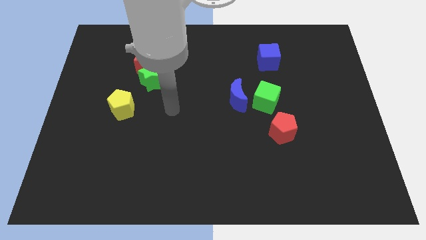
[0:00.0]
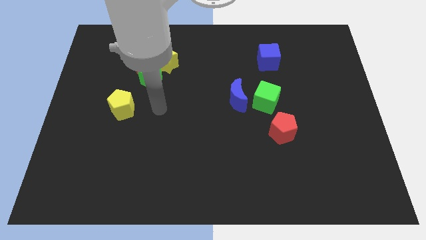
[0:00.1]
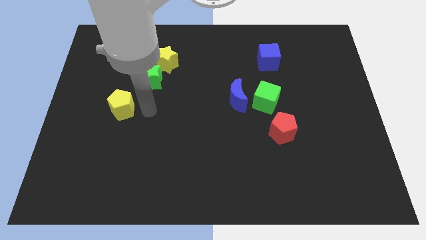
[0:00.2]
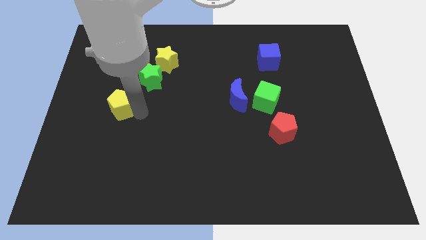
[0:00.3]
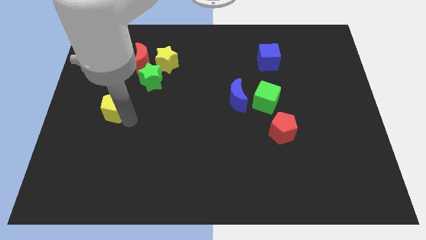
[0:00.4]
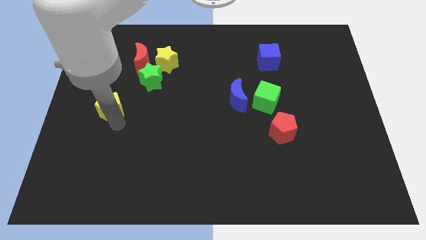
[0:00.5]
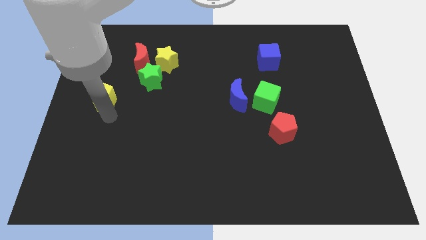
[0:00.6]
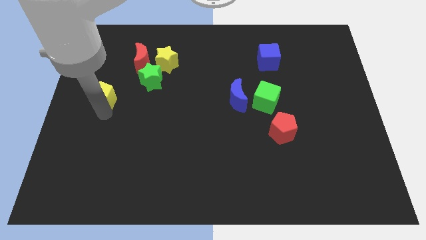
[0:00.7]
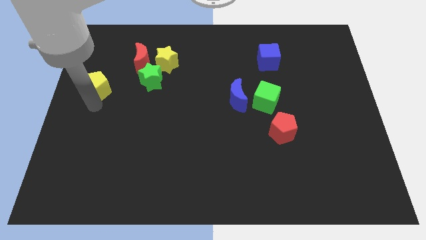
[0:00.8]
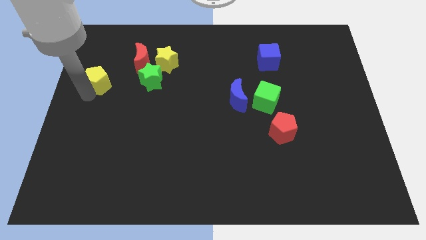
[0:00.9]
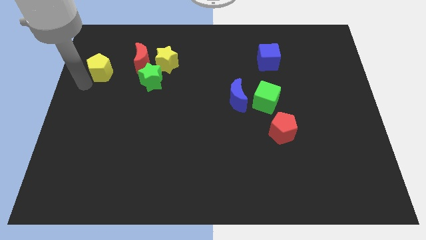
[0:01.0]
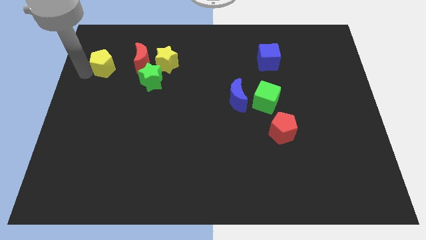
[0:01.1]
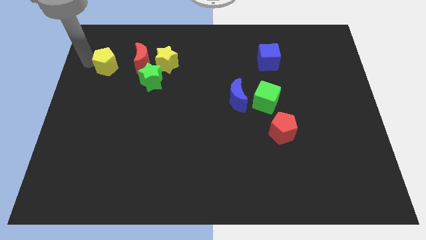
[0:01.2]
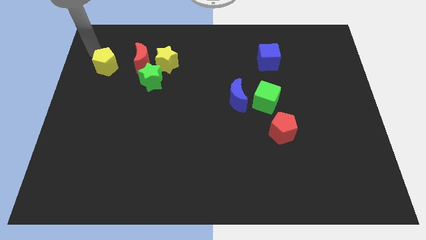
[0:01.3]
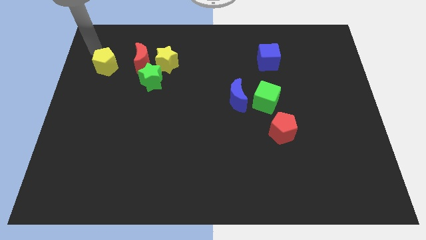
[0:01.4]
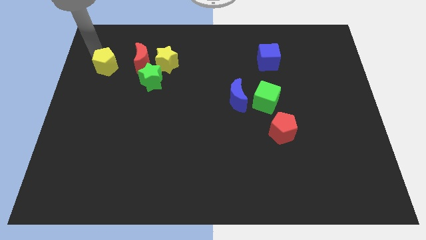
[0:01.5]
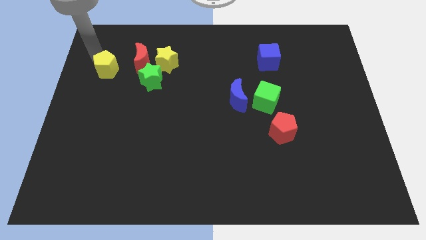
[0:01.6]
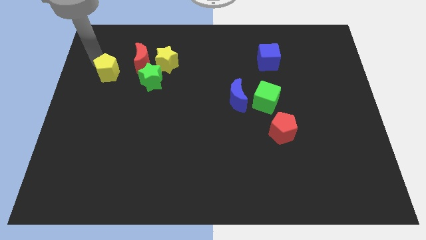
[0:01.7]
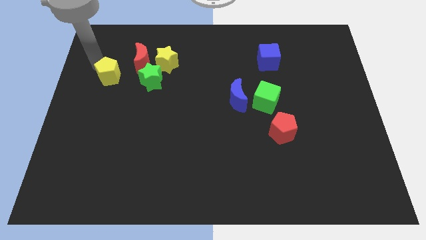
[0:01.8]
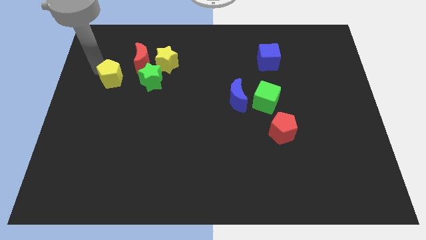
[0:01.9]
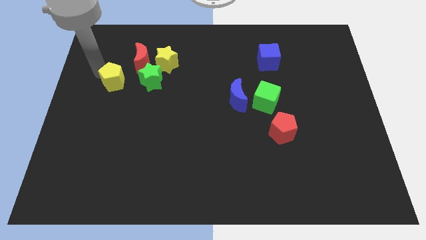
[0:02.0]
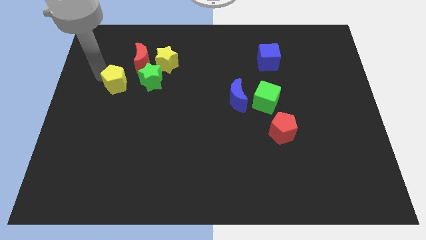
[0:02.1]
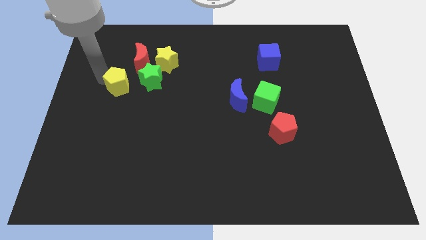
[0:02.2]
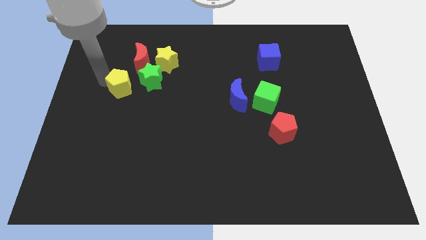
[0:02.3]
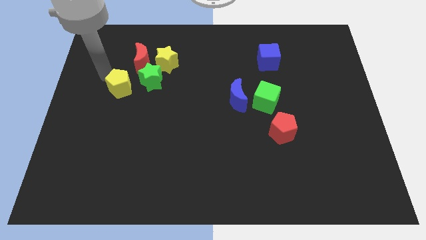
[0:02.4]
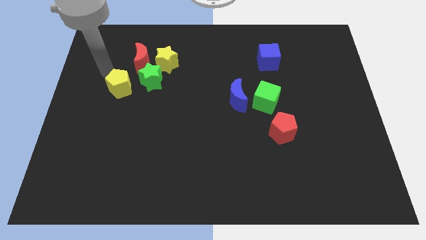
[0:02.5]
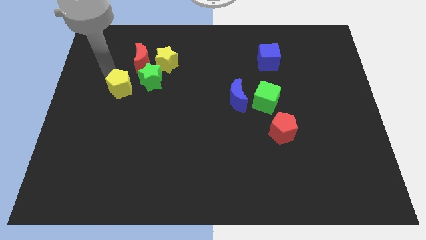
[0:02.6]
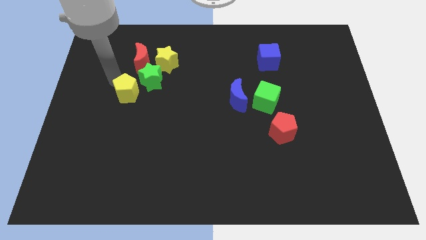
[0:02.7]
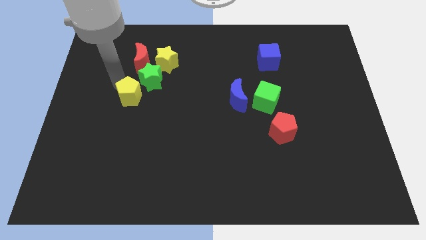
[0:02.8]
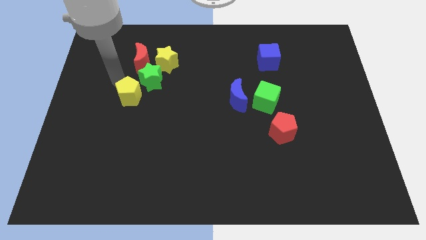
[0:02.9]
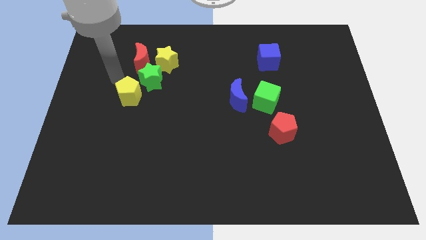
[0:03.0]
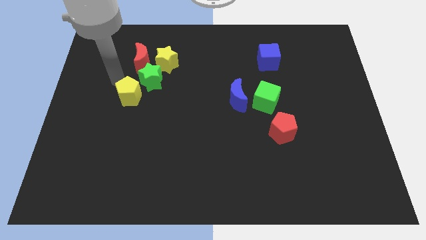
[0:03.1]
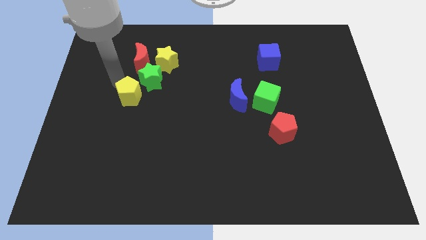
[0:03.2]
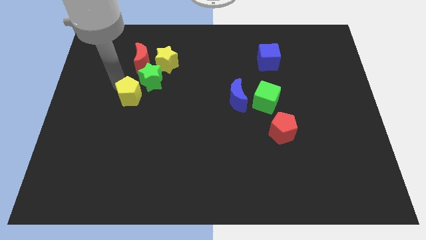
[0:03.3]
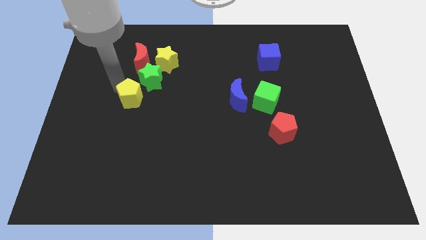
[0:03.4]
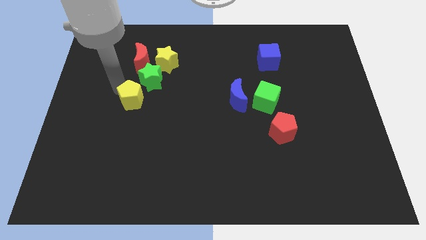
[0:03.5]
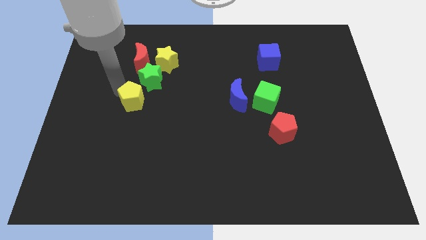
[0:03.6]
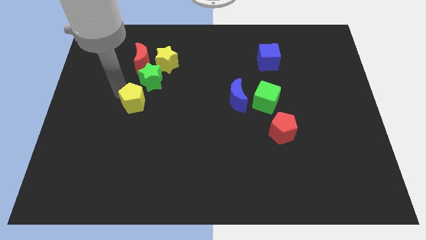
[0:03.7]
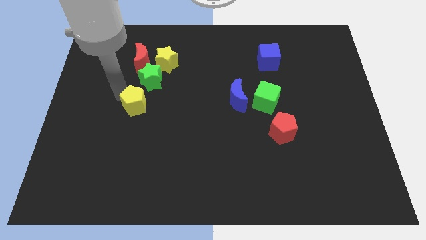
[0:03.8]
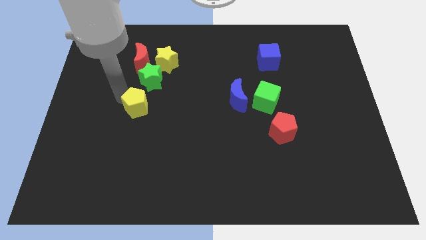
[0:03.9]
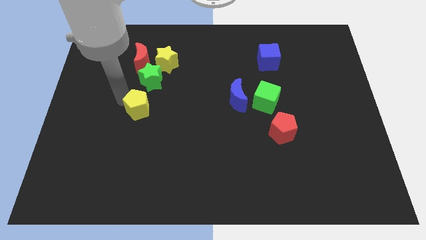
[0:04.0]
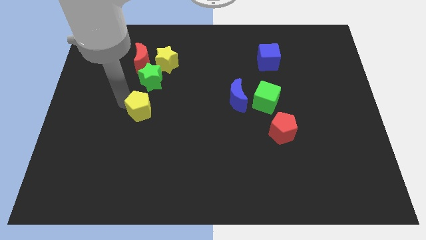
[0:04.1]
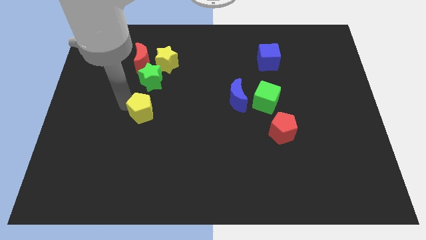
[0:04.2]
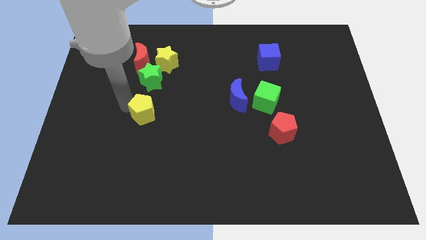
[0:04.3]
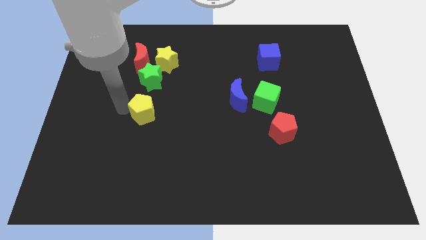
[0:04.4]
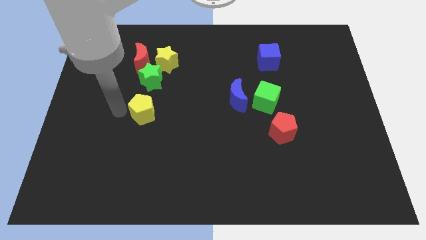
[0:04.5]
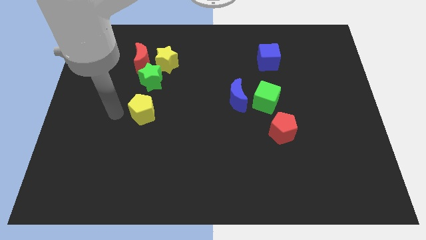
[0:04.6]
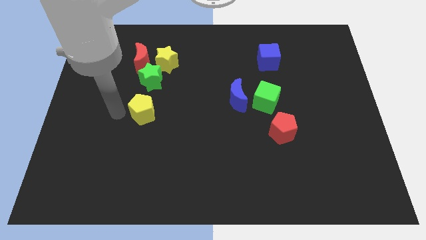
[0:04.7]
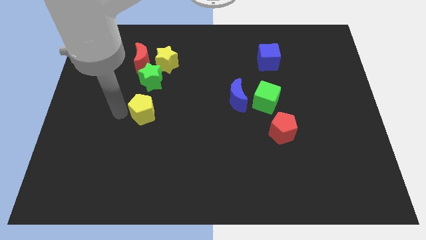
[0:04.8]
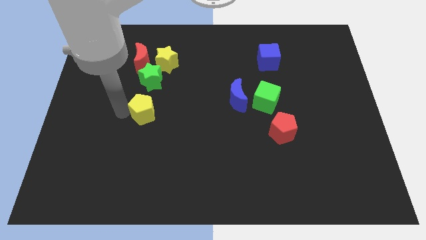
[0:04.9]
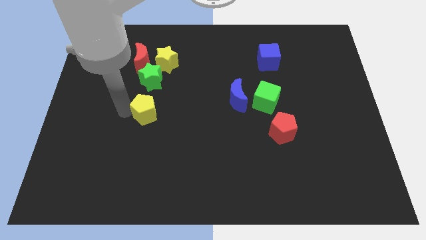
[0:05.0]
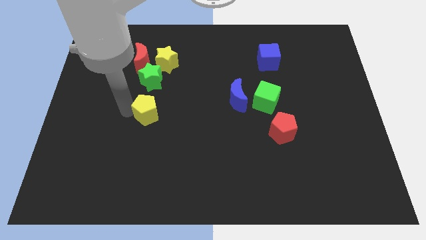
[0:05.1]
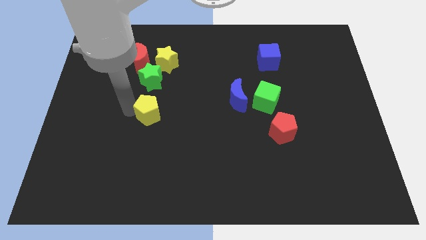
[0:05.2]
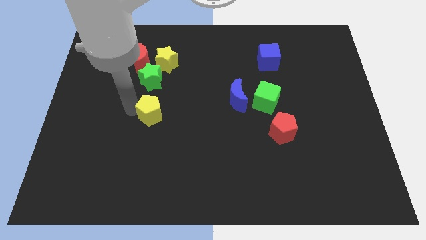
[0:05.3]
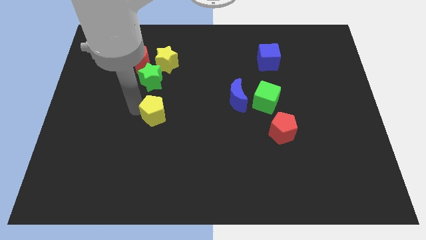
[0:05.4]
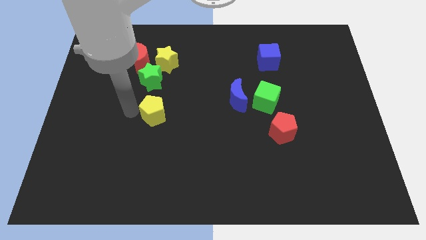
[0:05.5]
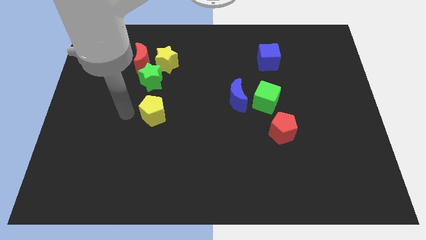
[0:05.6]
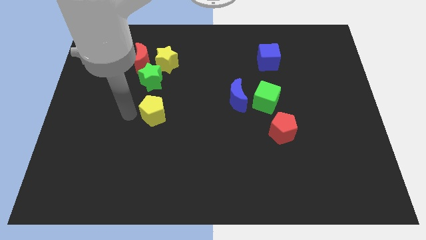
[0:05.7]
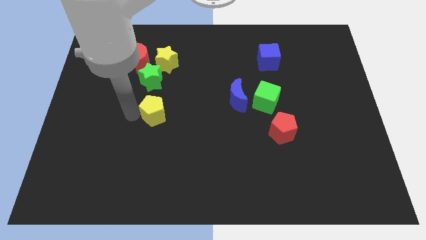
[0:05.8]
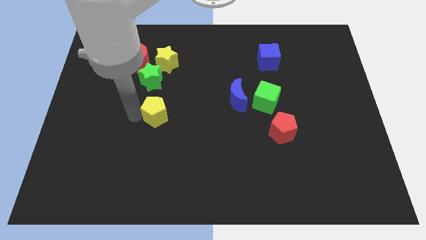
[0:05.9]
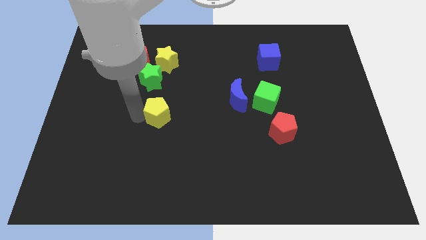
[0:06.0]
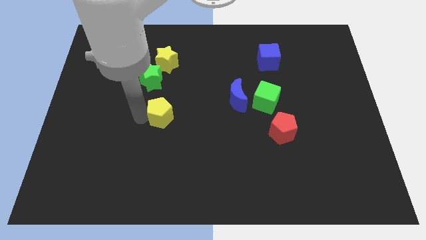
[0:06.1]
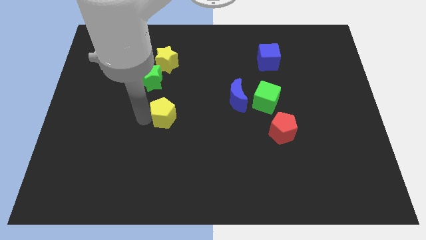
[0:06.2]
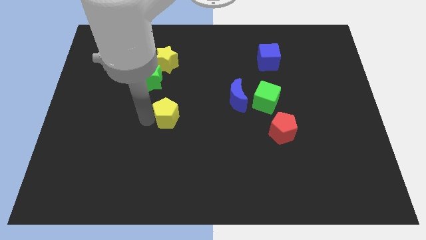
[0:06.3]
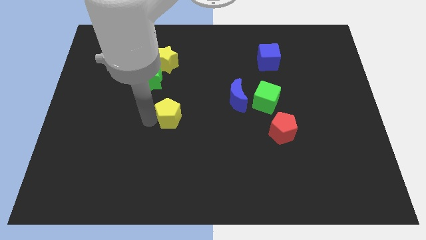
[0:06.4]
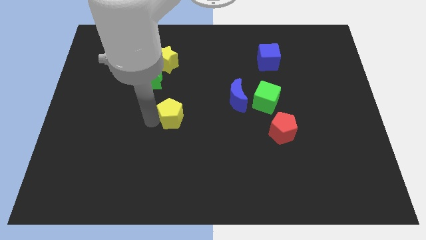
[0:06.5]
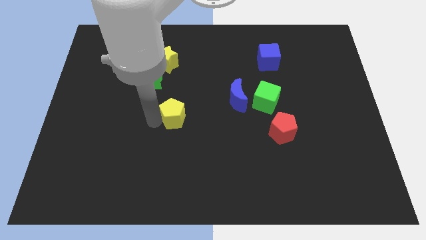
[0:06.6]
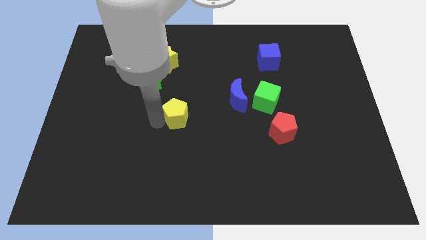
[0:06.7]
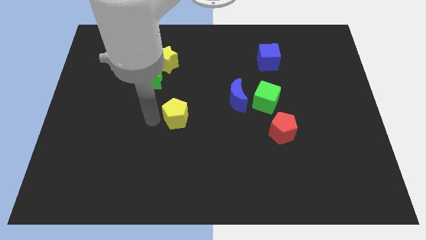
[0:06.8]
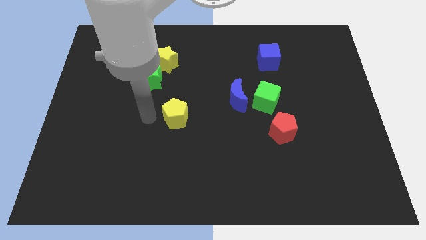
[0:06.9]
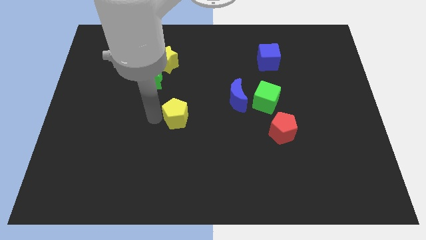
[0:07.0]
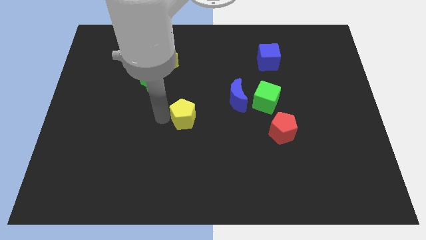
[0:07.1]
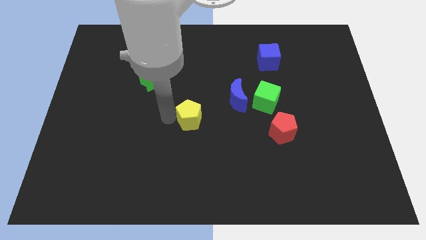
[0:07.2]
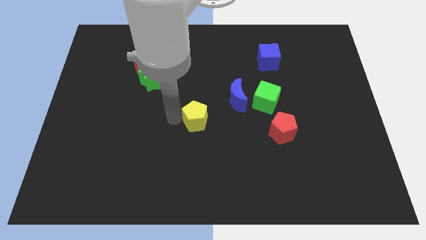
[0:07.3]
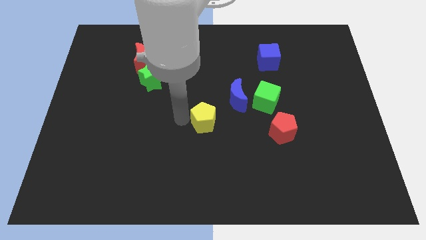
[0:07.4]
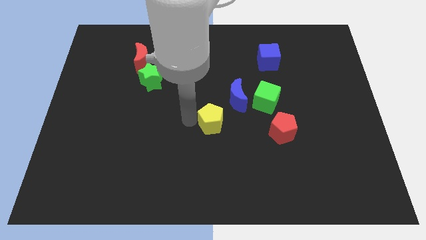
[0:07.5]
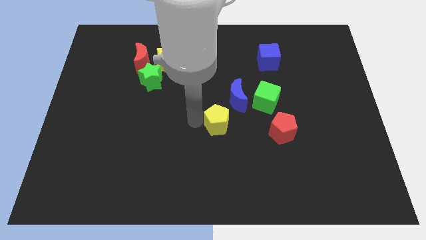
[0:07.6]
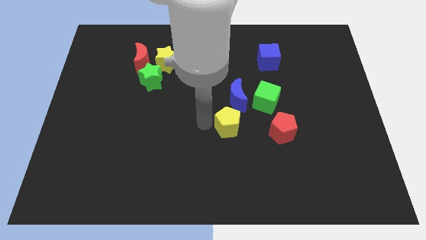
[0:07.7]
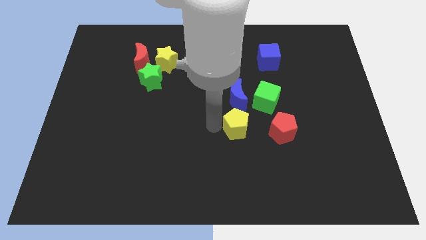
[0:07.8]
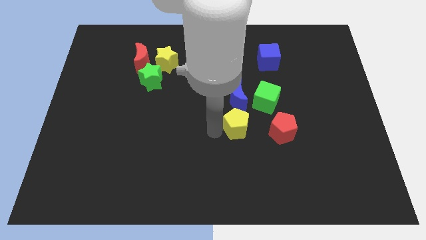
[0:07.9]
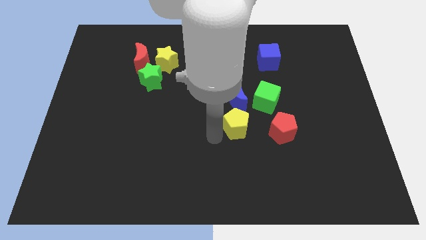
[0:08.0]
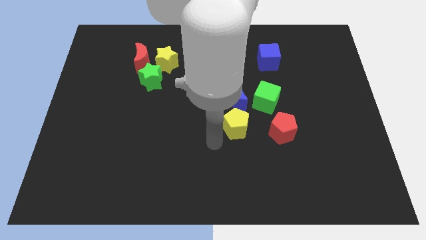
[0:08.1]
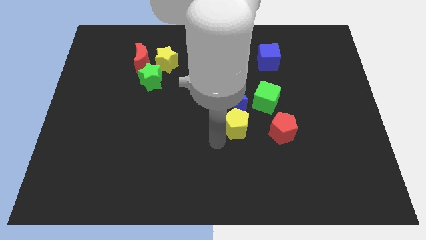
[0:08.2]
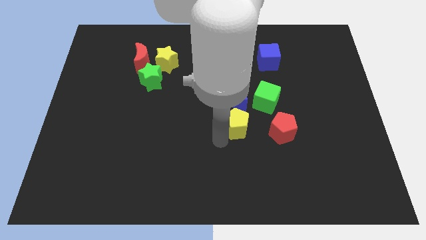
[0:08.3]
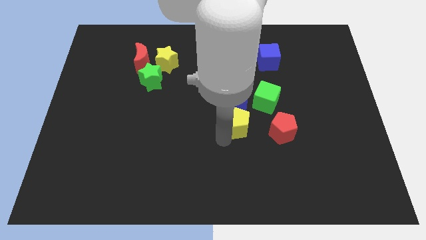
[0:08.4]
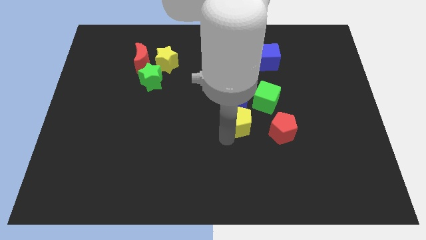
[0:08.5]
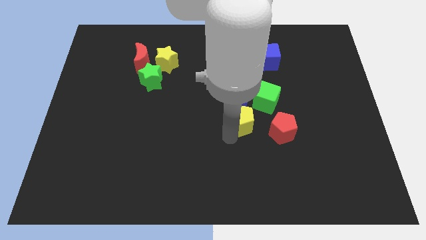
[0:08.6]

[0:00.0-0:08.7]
push the yellow pentagon to the top left of the red pentagon
